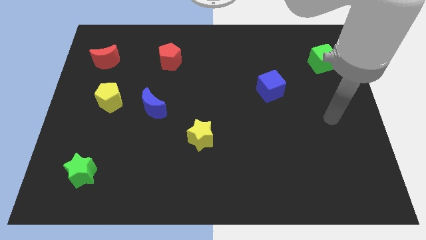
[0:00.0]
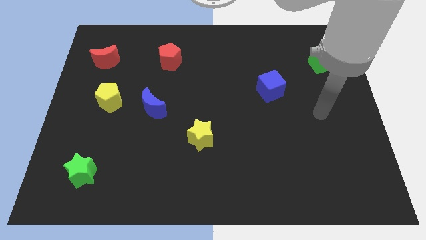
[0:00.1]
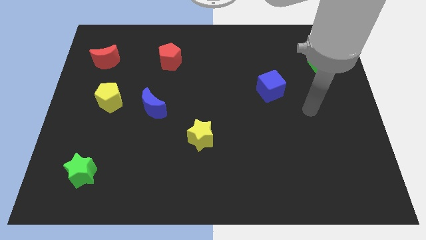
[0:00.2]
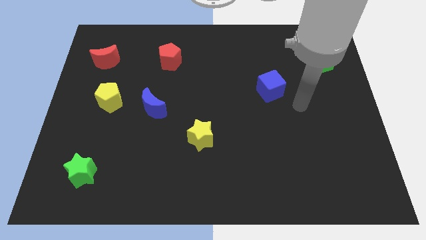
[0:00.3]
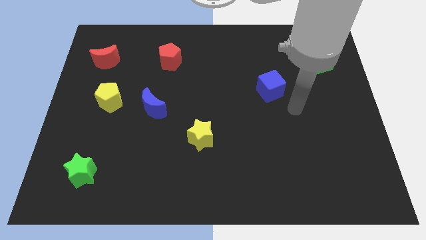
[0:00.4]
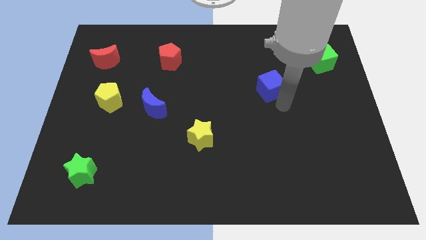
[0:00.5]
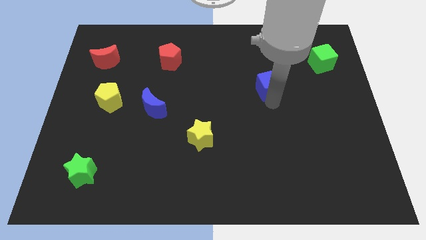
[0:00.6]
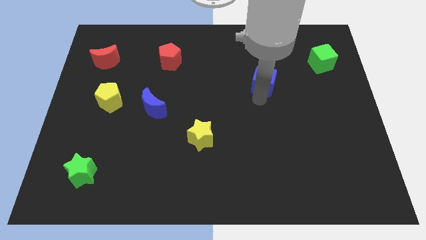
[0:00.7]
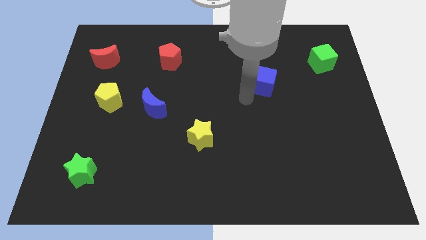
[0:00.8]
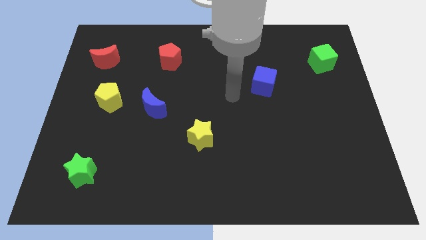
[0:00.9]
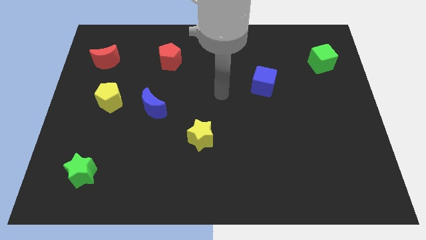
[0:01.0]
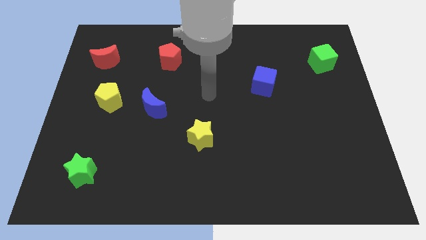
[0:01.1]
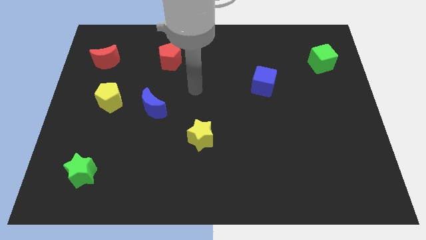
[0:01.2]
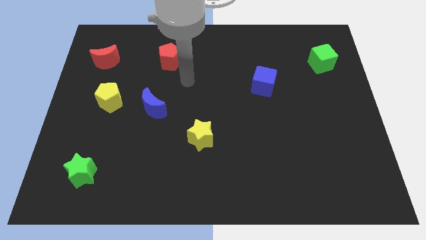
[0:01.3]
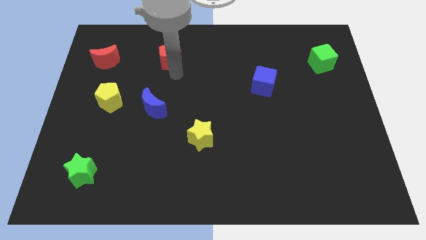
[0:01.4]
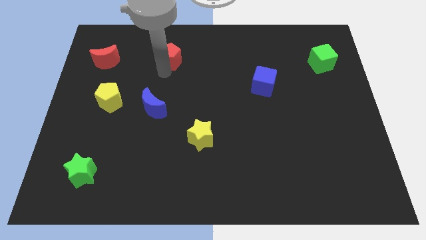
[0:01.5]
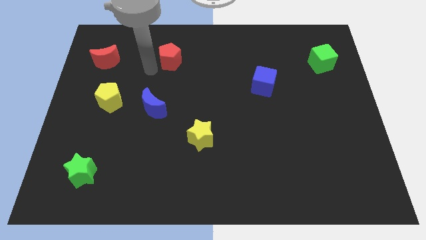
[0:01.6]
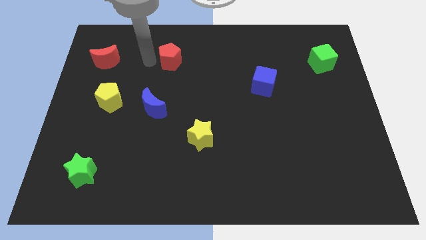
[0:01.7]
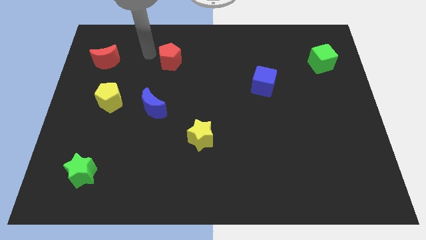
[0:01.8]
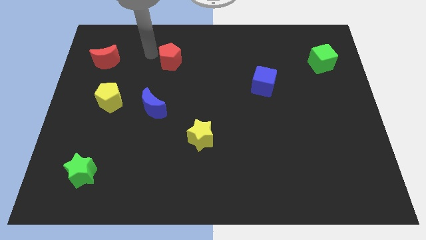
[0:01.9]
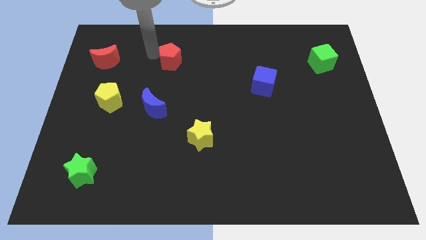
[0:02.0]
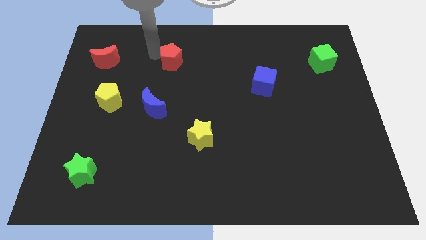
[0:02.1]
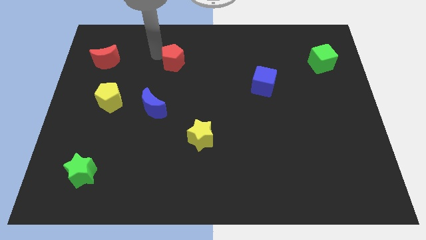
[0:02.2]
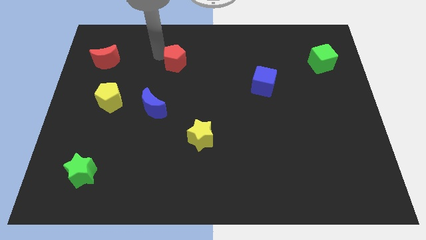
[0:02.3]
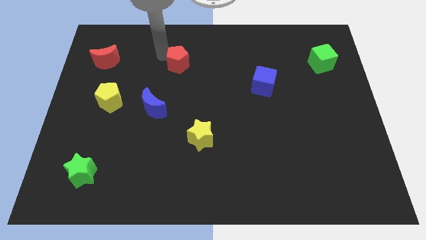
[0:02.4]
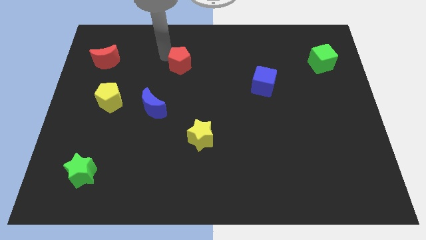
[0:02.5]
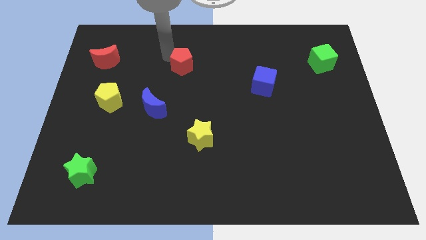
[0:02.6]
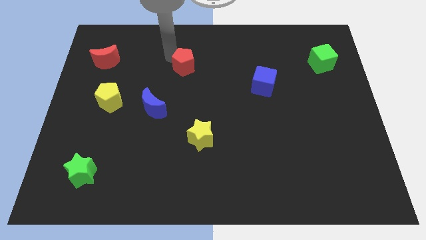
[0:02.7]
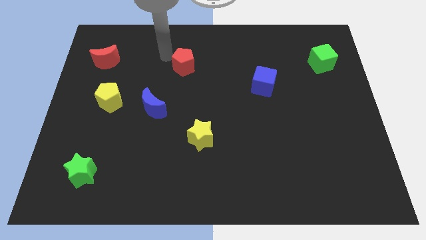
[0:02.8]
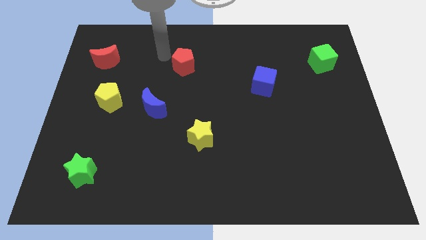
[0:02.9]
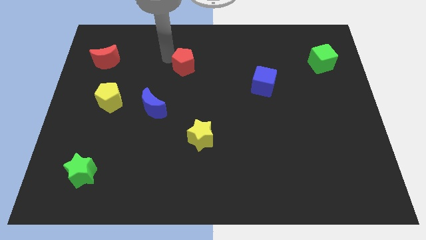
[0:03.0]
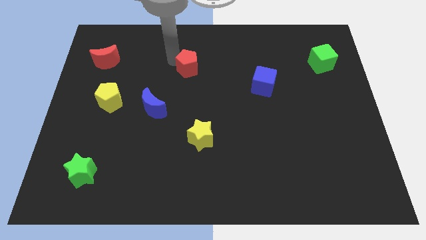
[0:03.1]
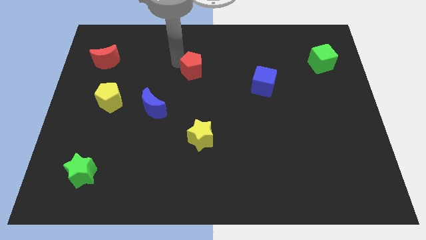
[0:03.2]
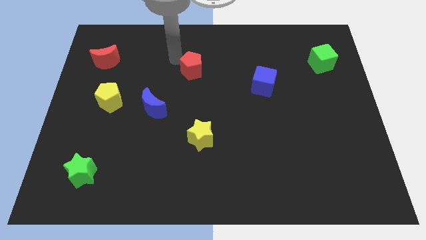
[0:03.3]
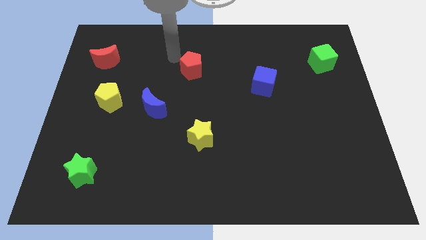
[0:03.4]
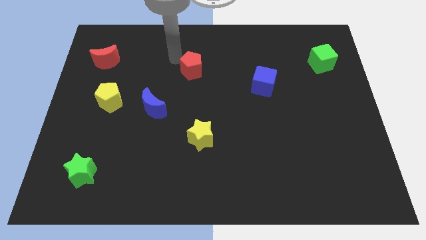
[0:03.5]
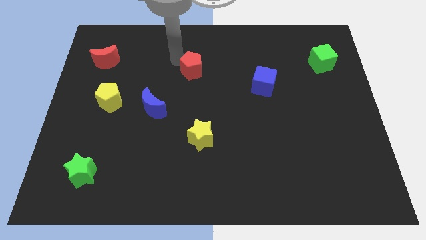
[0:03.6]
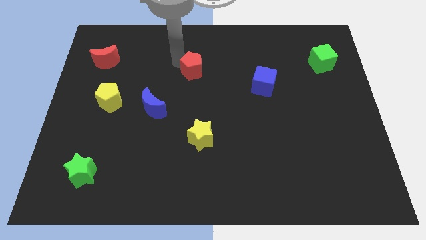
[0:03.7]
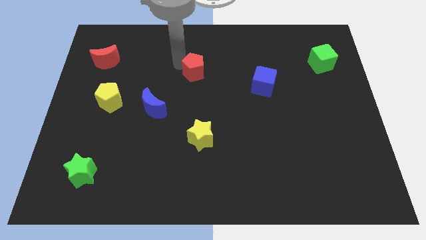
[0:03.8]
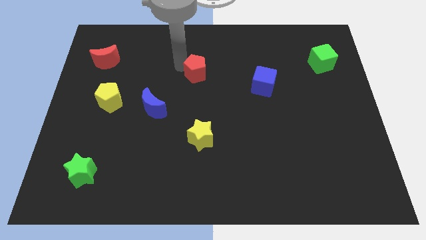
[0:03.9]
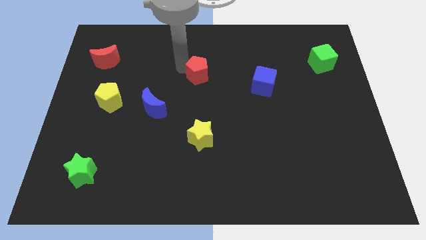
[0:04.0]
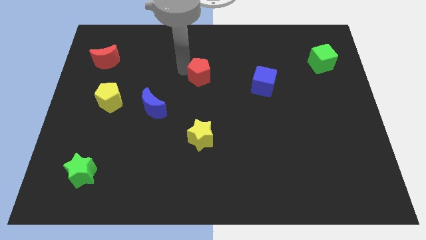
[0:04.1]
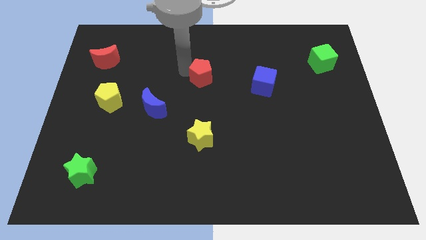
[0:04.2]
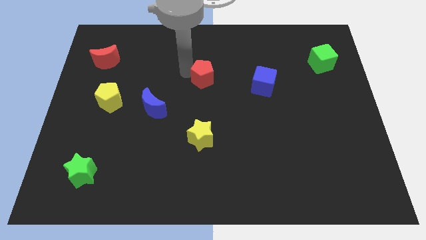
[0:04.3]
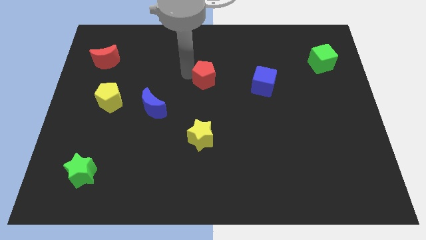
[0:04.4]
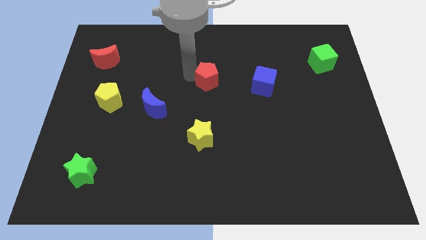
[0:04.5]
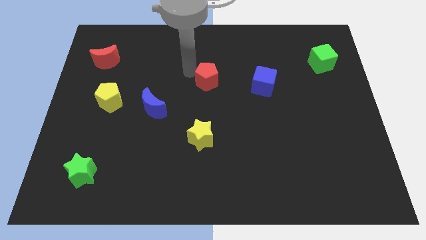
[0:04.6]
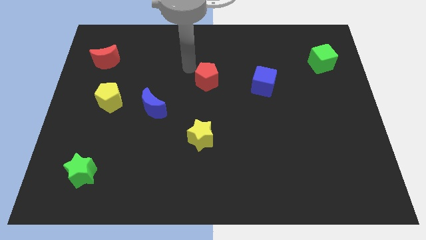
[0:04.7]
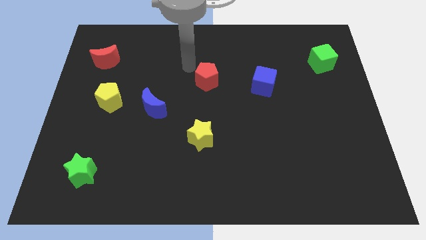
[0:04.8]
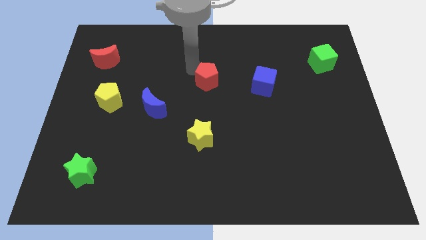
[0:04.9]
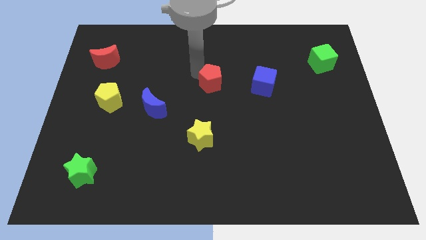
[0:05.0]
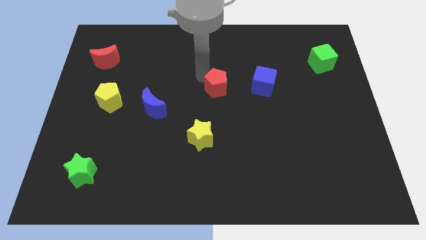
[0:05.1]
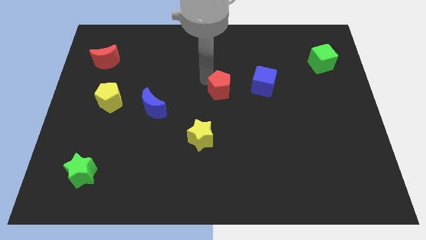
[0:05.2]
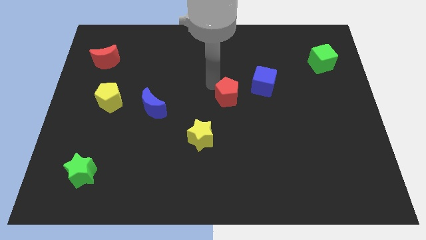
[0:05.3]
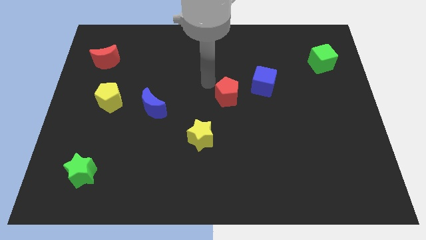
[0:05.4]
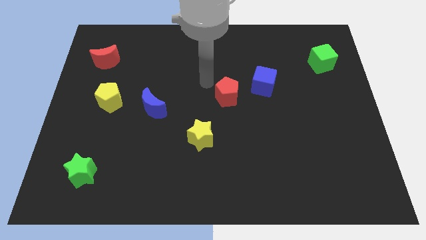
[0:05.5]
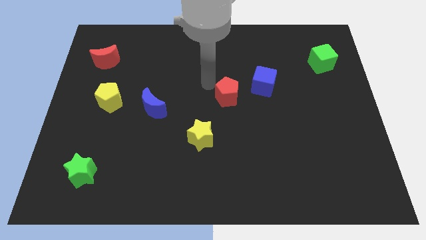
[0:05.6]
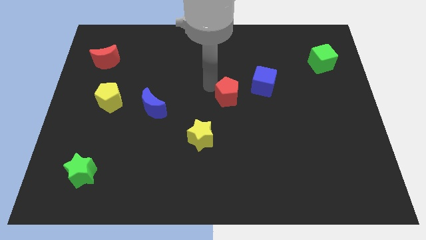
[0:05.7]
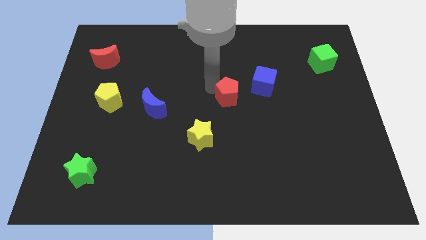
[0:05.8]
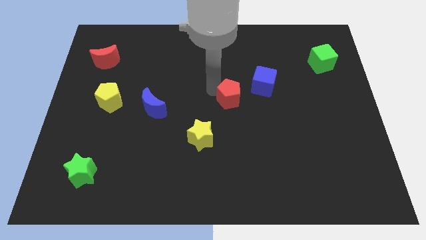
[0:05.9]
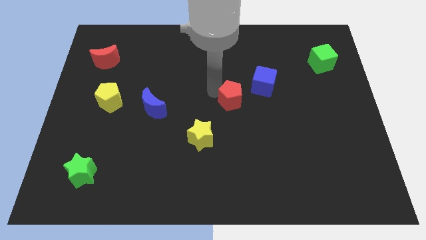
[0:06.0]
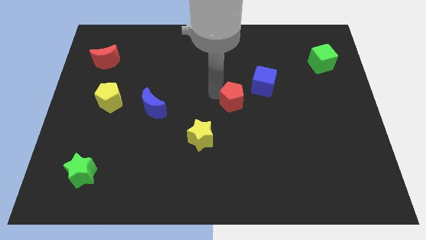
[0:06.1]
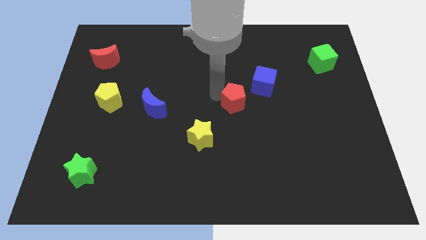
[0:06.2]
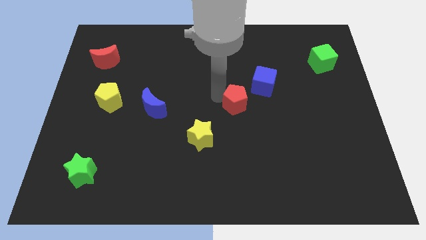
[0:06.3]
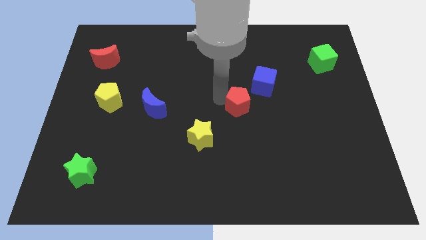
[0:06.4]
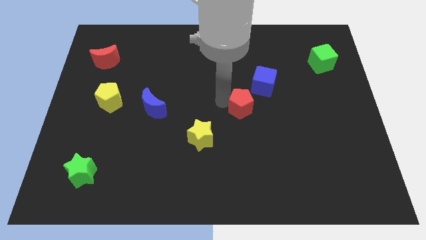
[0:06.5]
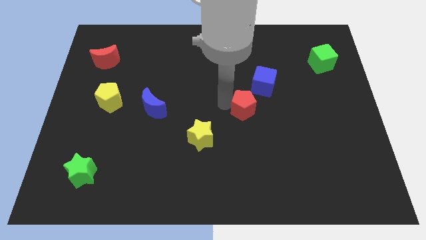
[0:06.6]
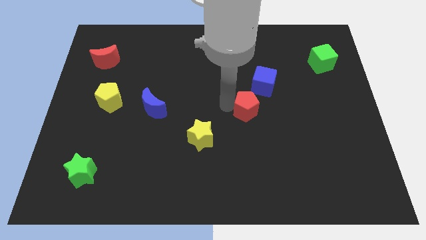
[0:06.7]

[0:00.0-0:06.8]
push the red pentagon below the blue cube

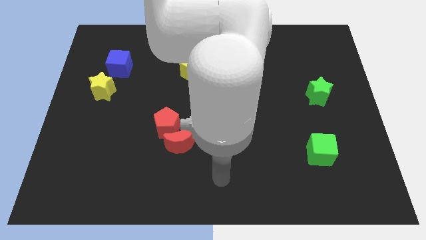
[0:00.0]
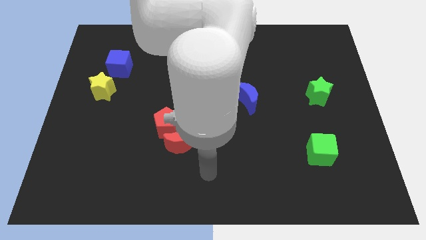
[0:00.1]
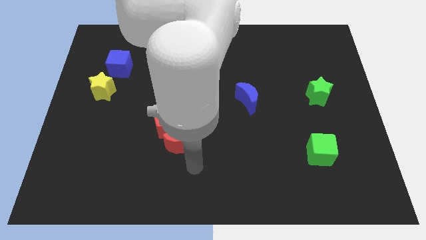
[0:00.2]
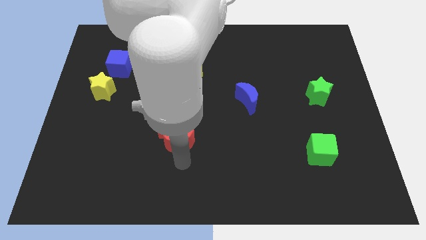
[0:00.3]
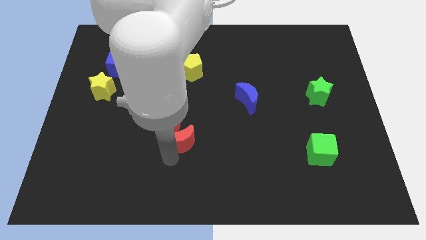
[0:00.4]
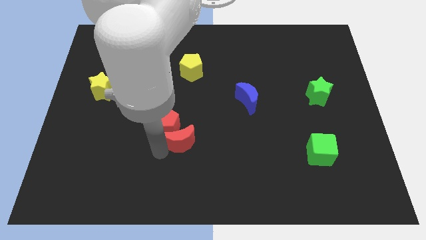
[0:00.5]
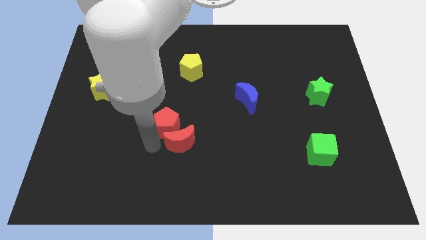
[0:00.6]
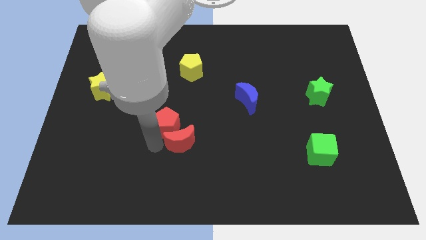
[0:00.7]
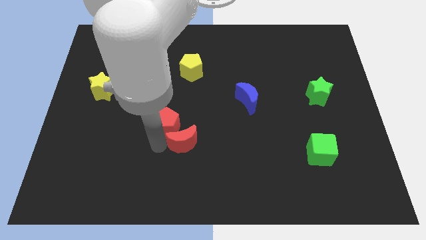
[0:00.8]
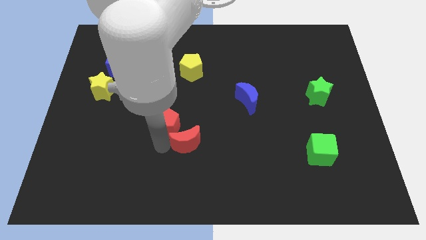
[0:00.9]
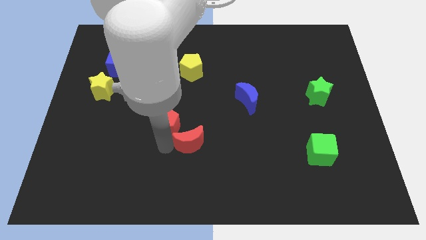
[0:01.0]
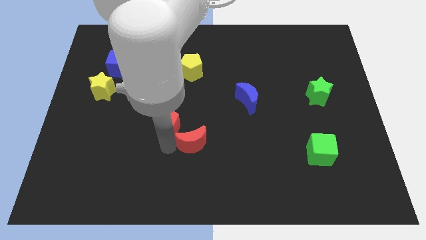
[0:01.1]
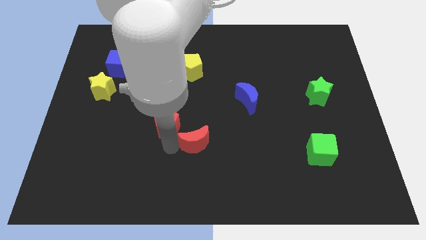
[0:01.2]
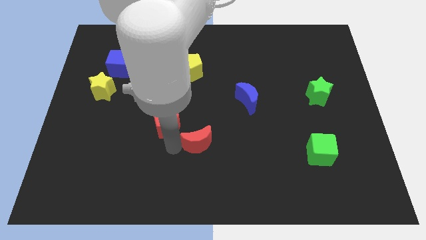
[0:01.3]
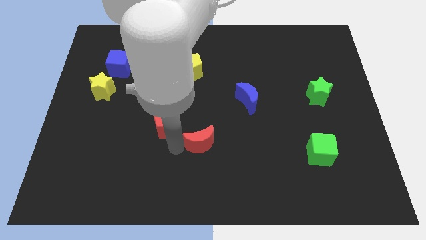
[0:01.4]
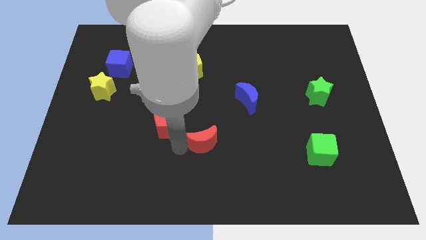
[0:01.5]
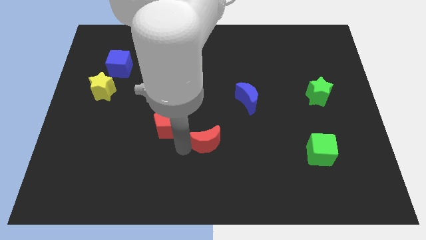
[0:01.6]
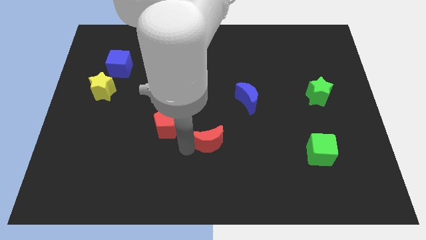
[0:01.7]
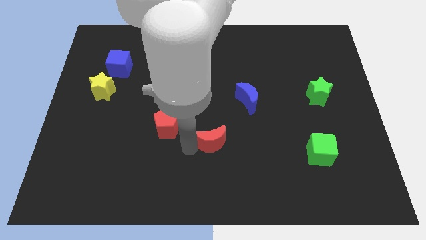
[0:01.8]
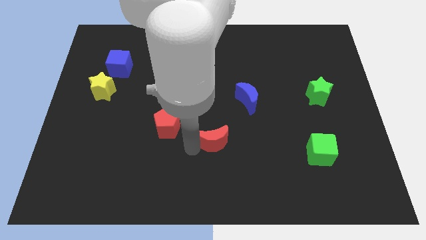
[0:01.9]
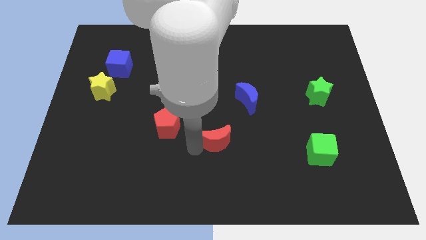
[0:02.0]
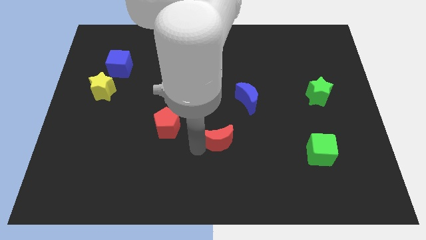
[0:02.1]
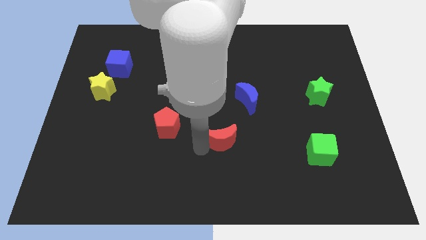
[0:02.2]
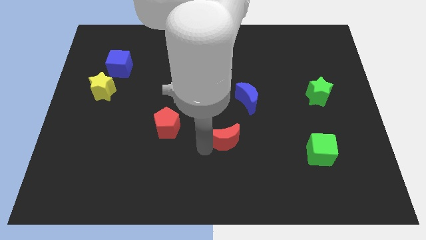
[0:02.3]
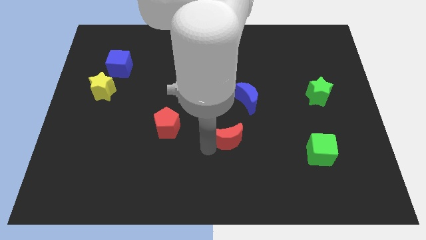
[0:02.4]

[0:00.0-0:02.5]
slide the red moon to the bottom of the blue moon
